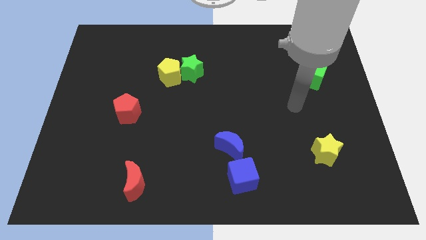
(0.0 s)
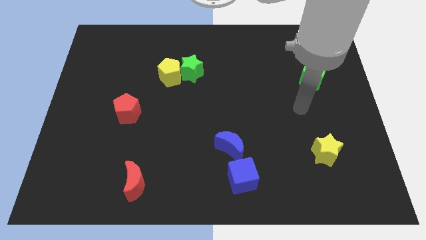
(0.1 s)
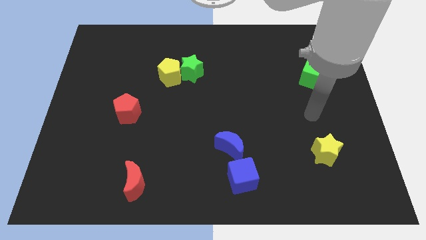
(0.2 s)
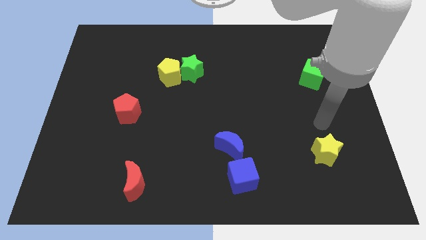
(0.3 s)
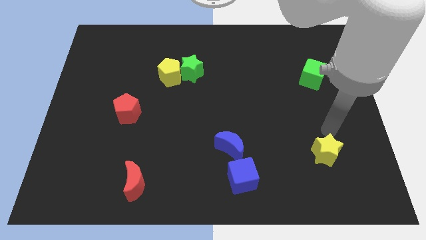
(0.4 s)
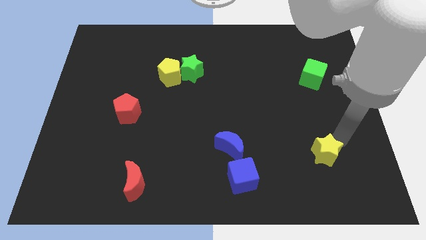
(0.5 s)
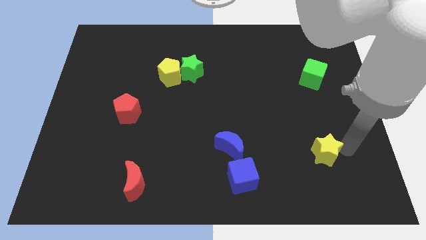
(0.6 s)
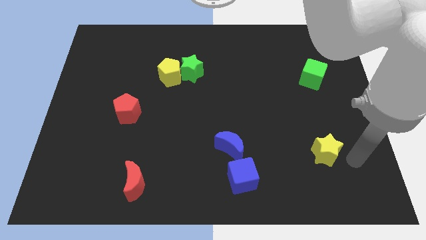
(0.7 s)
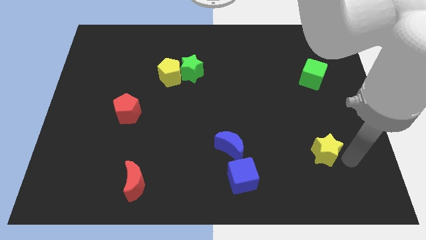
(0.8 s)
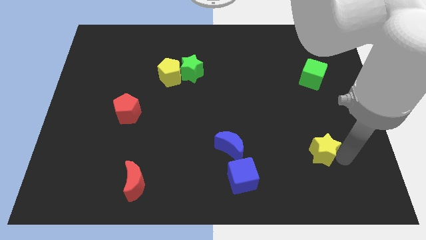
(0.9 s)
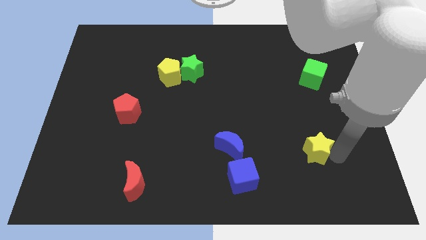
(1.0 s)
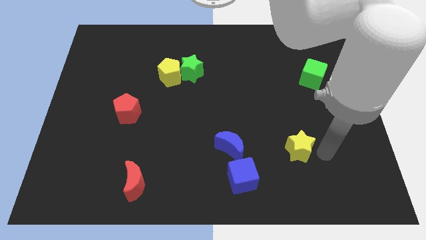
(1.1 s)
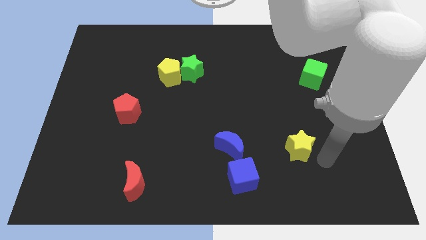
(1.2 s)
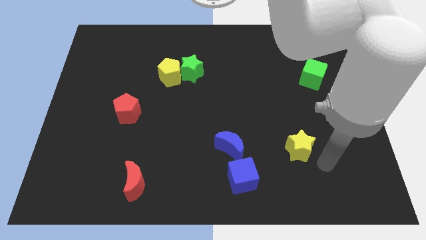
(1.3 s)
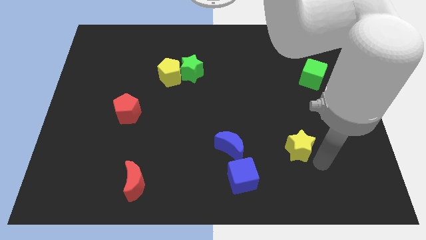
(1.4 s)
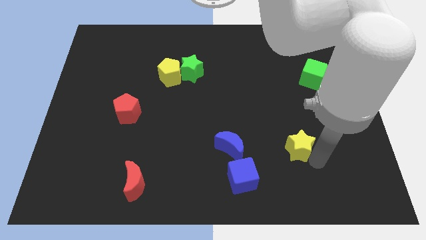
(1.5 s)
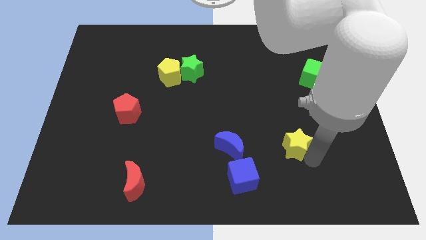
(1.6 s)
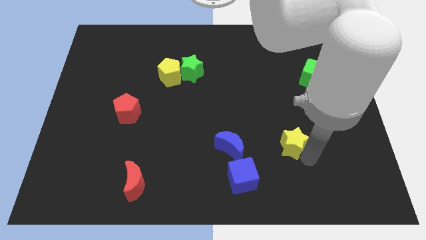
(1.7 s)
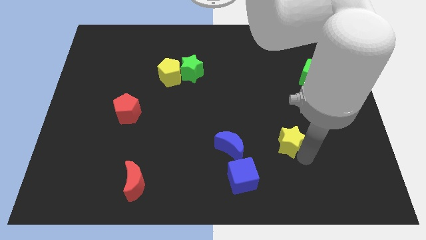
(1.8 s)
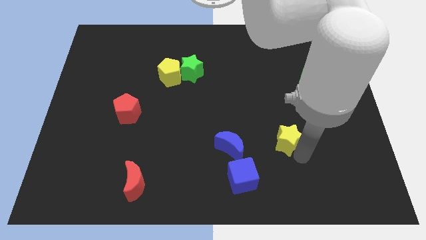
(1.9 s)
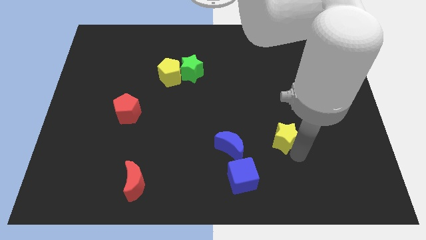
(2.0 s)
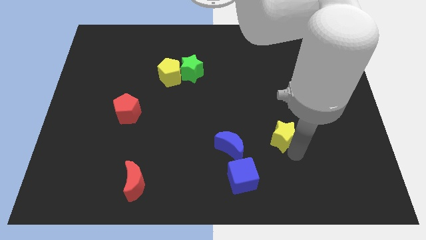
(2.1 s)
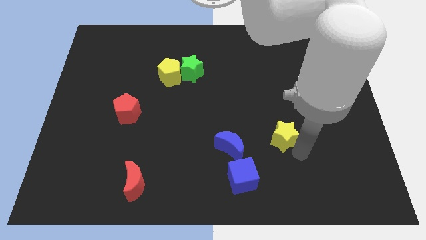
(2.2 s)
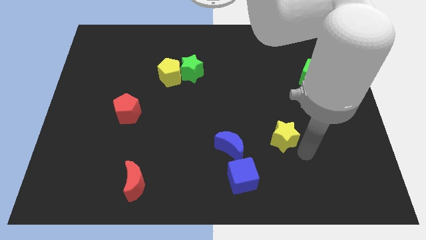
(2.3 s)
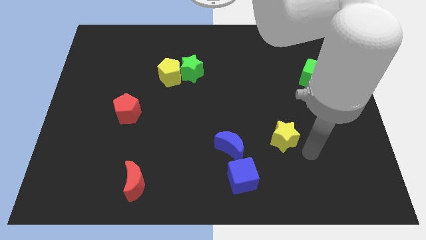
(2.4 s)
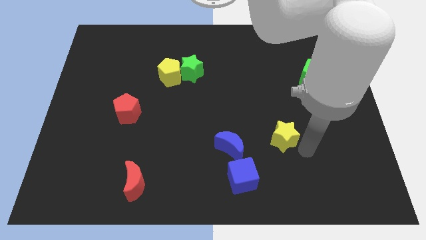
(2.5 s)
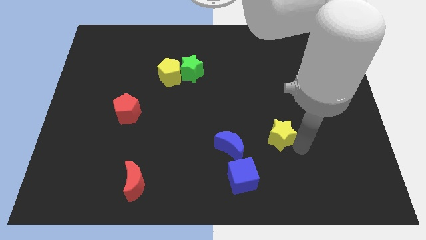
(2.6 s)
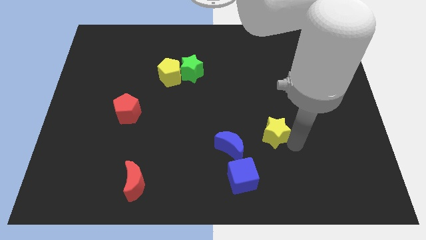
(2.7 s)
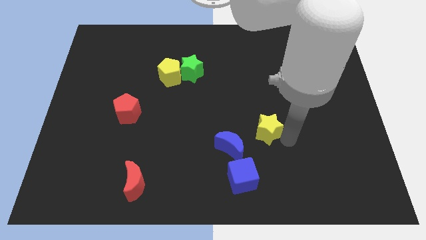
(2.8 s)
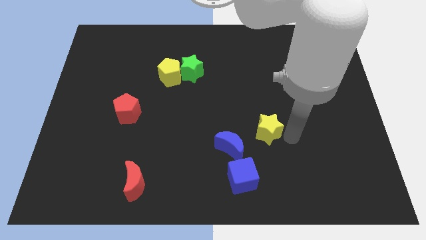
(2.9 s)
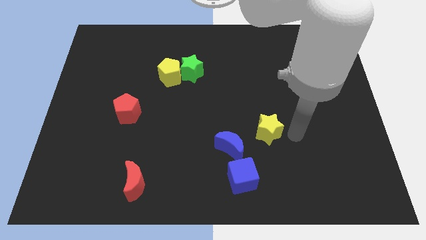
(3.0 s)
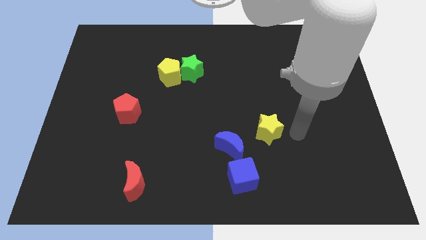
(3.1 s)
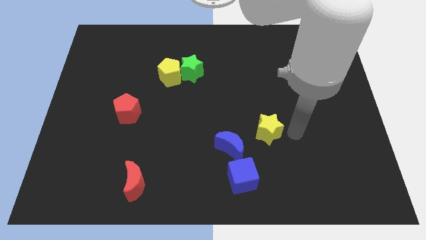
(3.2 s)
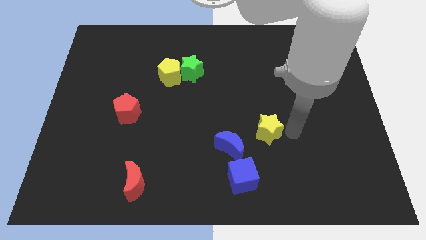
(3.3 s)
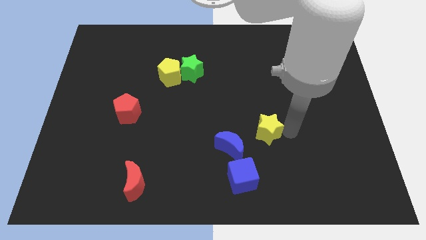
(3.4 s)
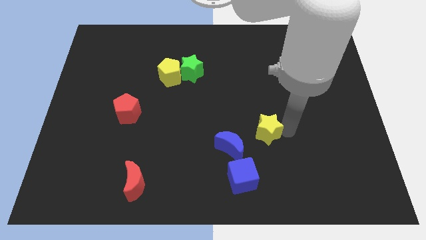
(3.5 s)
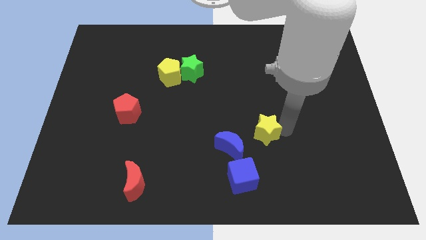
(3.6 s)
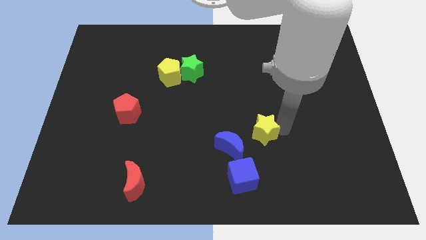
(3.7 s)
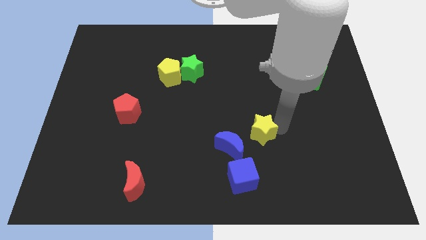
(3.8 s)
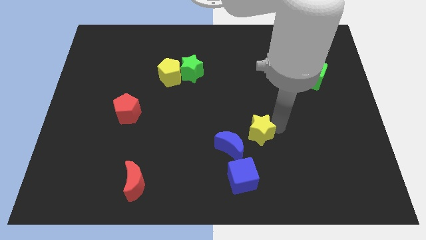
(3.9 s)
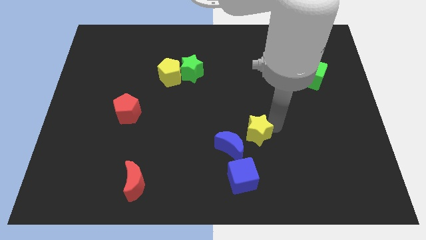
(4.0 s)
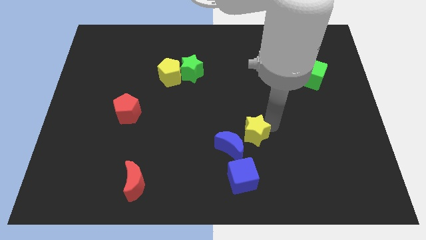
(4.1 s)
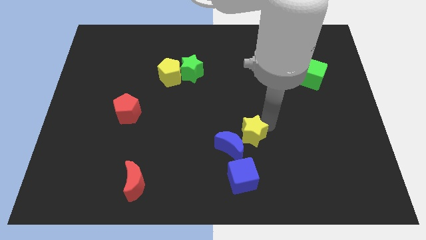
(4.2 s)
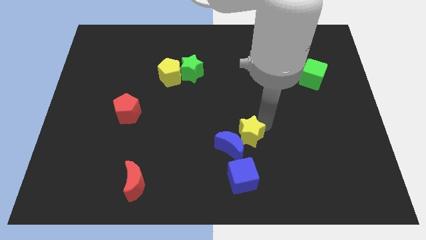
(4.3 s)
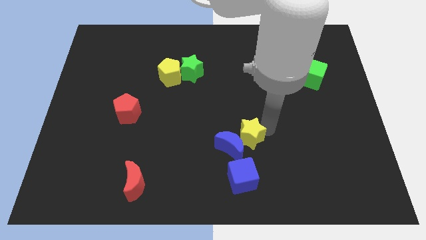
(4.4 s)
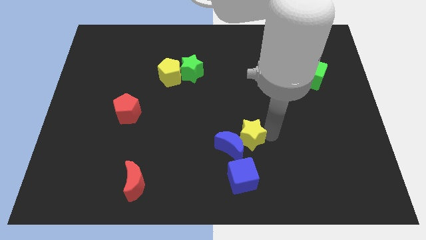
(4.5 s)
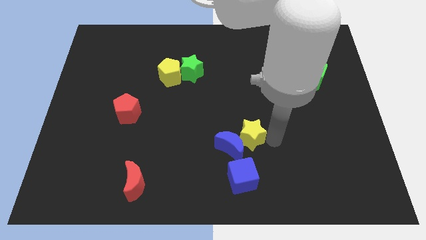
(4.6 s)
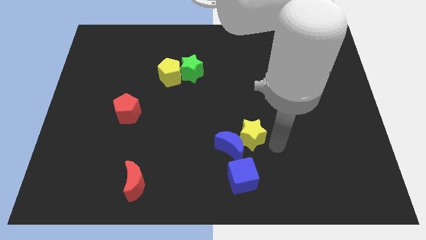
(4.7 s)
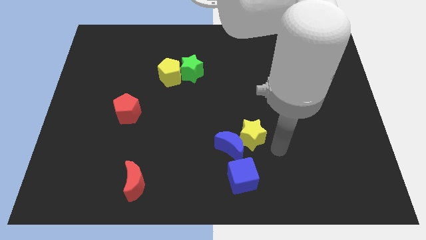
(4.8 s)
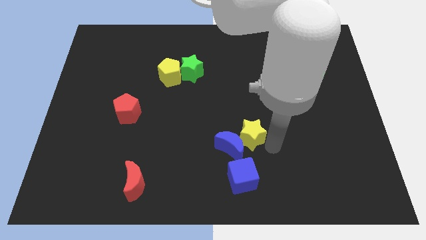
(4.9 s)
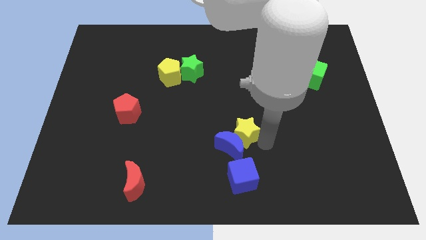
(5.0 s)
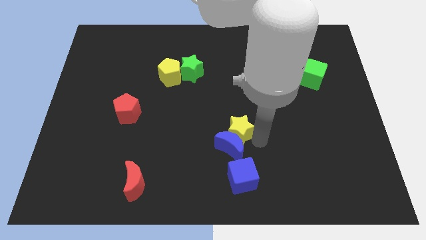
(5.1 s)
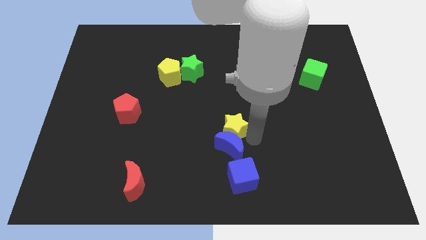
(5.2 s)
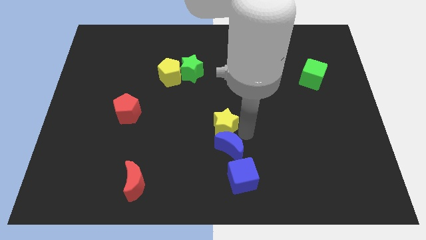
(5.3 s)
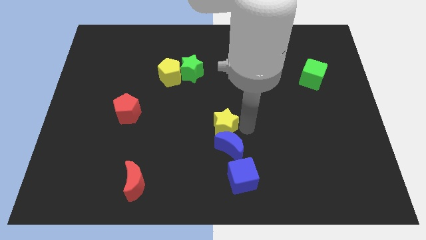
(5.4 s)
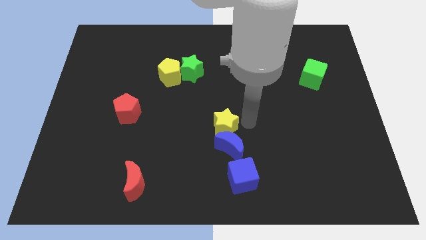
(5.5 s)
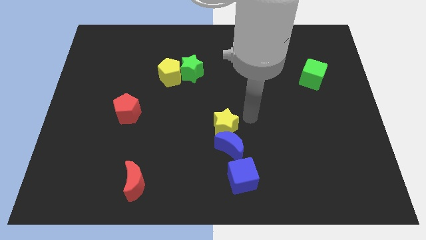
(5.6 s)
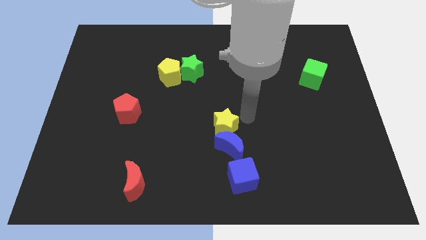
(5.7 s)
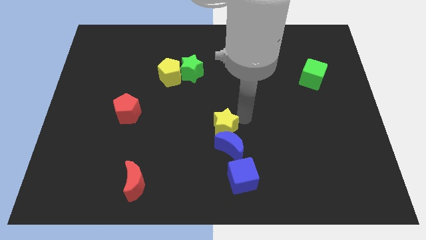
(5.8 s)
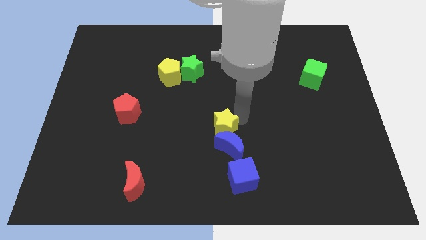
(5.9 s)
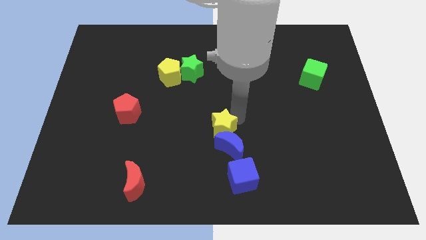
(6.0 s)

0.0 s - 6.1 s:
move the yellow star to the left

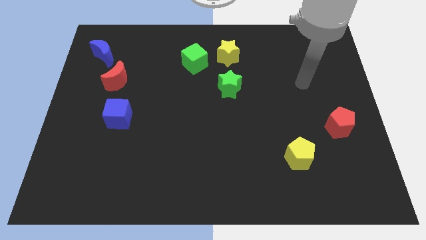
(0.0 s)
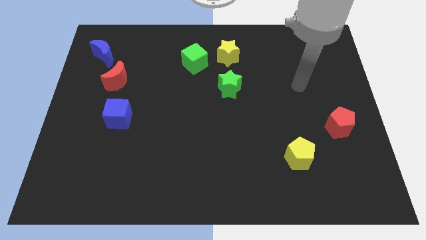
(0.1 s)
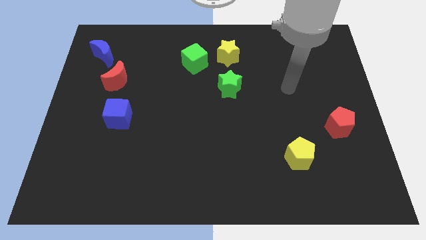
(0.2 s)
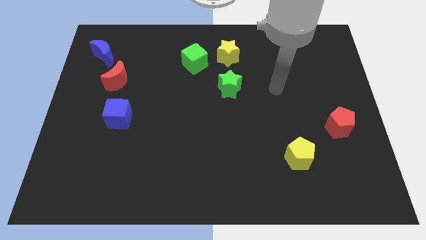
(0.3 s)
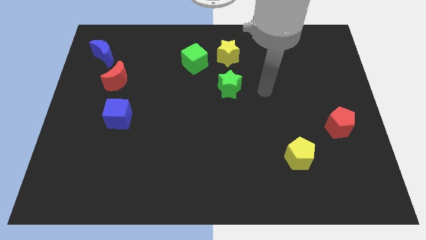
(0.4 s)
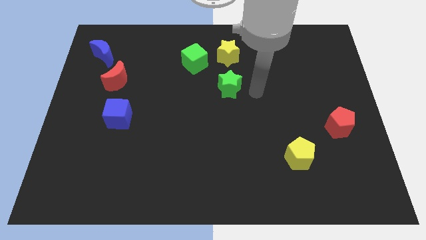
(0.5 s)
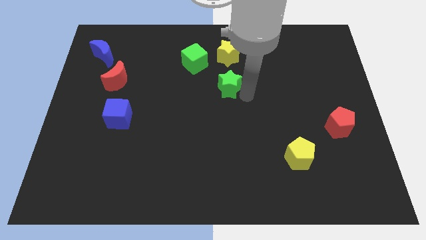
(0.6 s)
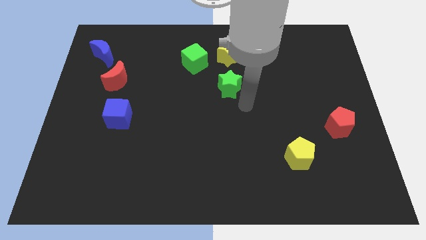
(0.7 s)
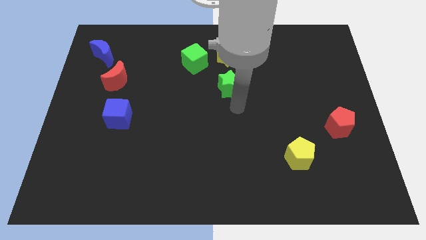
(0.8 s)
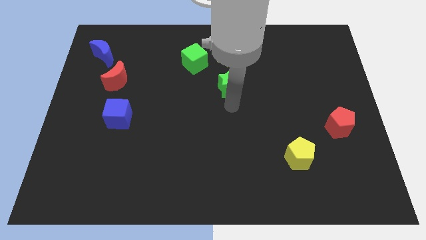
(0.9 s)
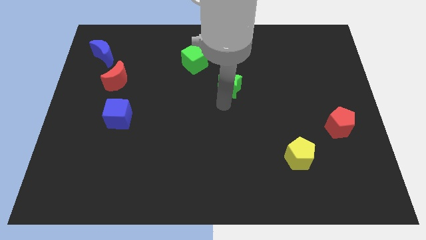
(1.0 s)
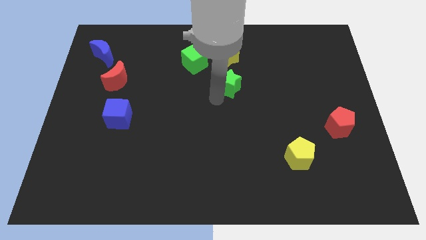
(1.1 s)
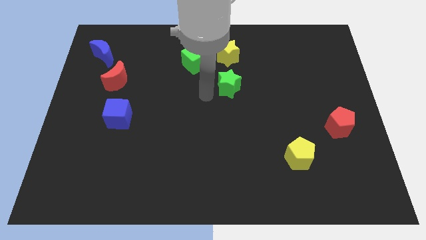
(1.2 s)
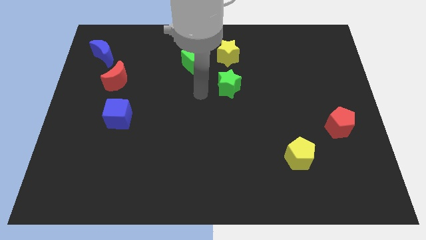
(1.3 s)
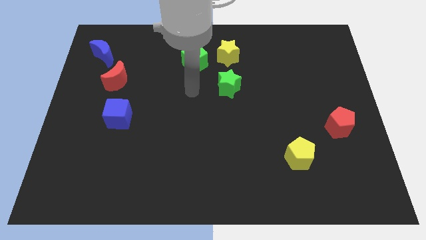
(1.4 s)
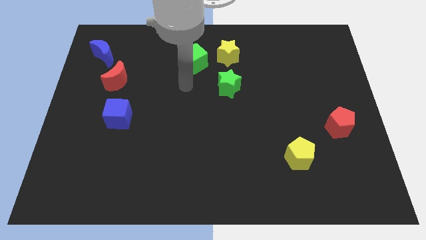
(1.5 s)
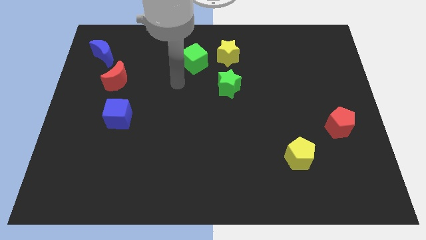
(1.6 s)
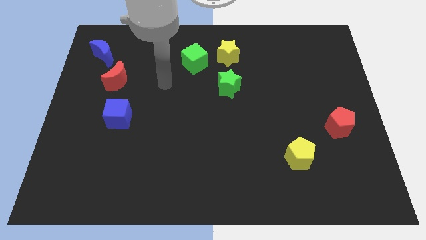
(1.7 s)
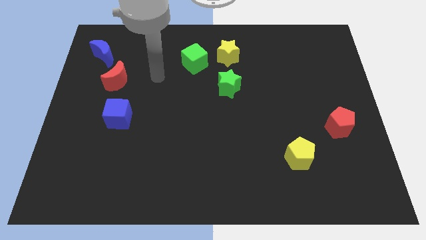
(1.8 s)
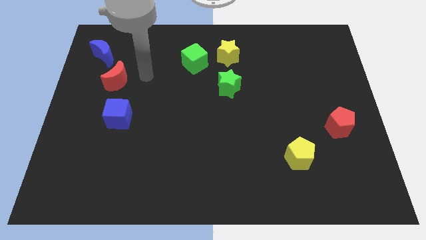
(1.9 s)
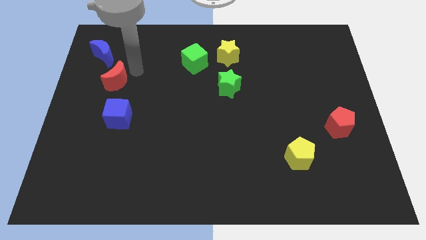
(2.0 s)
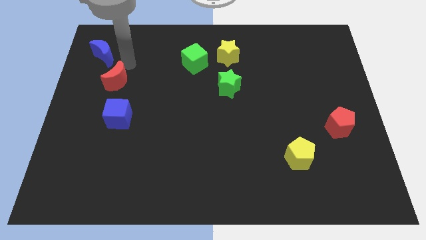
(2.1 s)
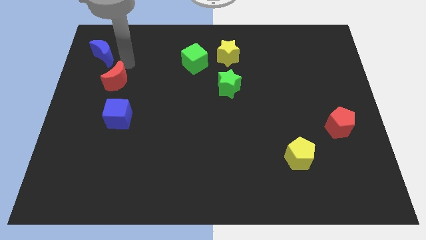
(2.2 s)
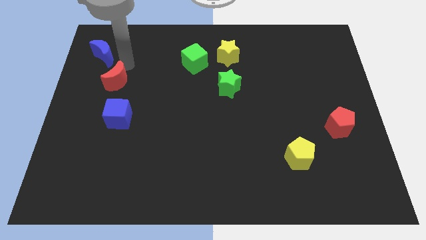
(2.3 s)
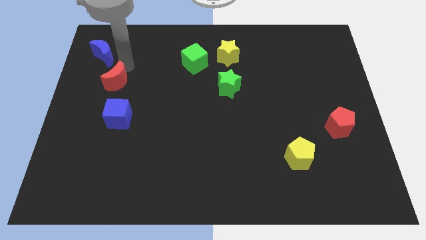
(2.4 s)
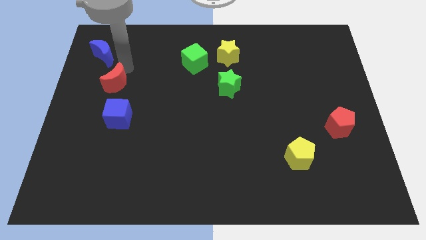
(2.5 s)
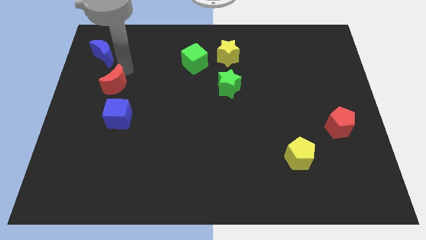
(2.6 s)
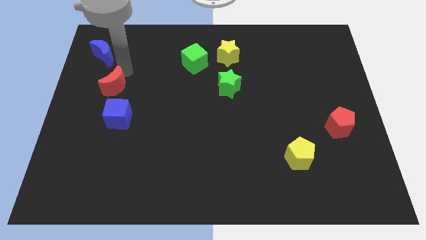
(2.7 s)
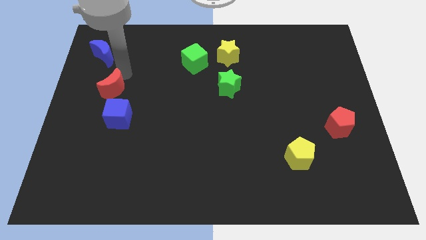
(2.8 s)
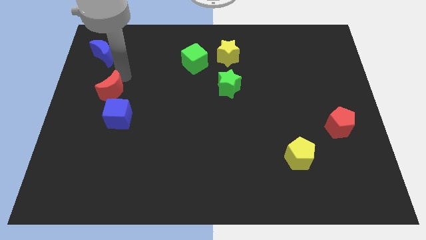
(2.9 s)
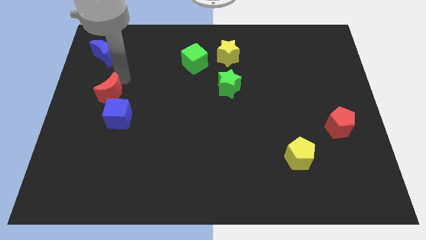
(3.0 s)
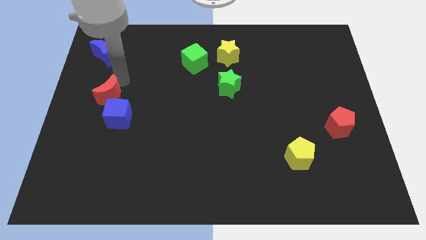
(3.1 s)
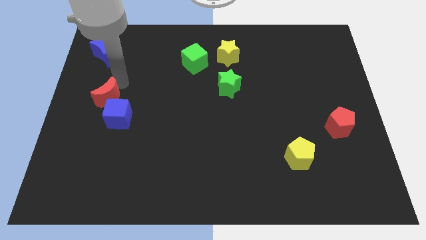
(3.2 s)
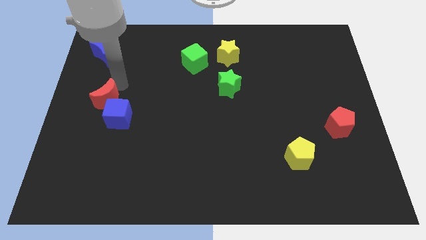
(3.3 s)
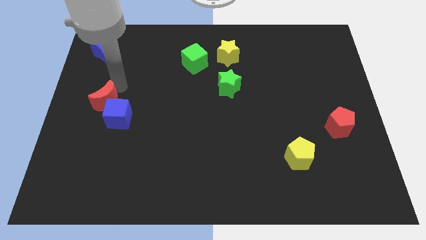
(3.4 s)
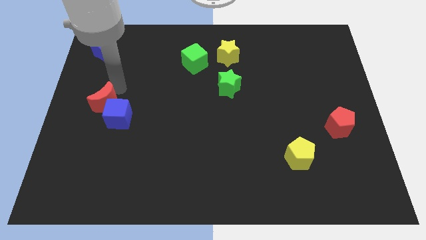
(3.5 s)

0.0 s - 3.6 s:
slightly move the red moon downwards
